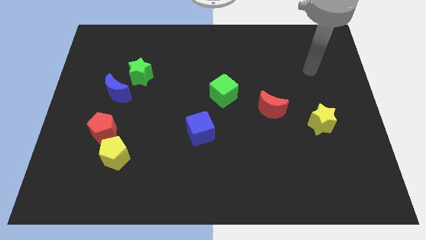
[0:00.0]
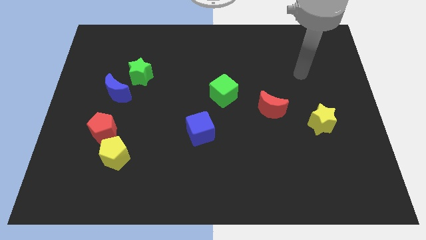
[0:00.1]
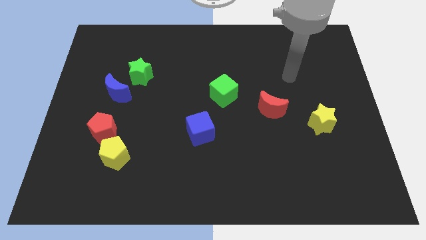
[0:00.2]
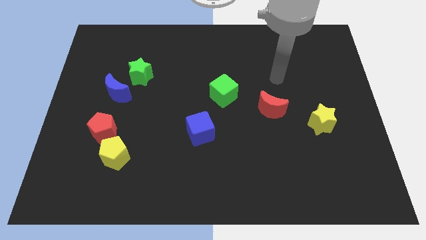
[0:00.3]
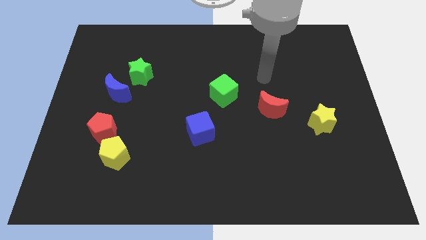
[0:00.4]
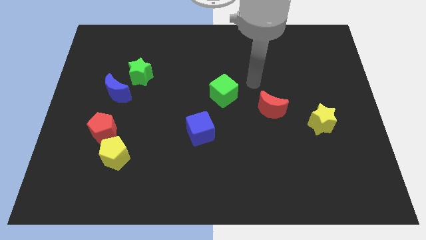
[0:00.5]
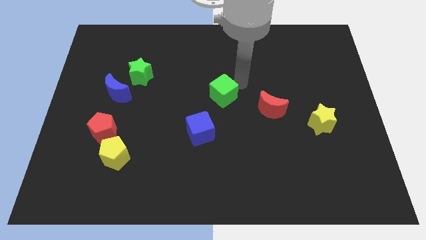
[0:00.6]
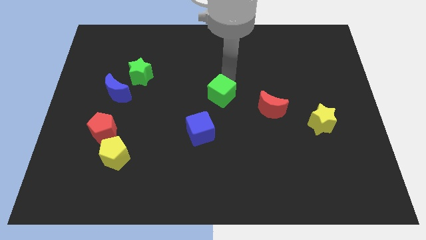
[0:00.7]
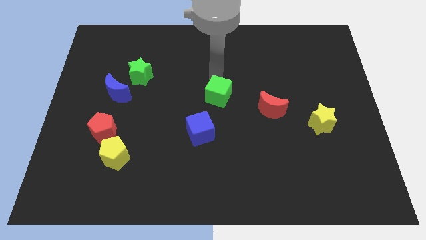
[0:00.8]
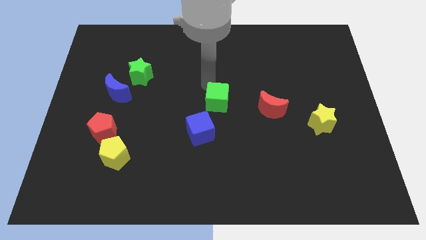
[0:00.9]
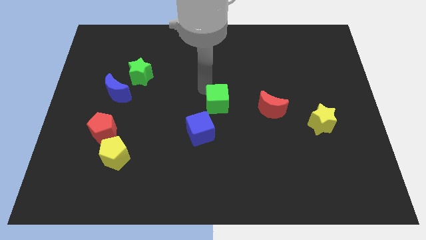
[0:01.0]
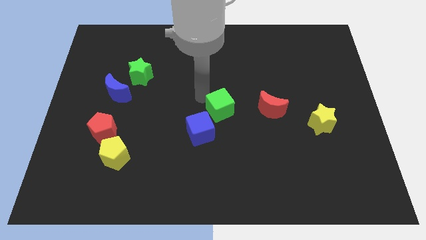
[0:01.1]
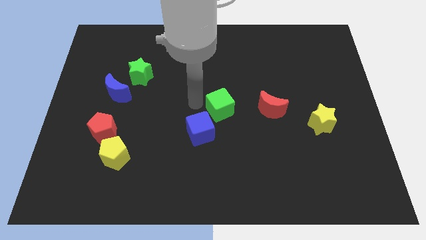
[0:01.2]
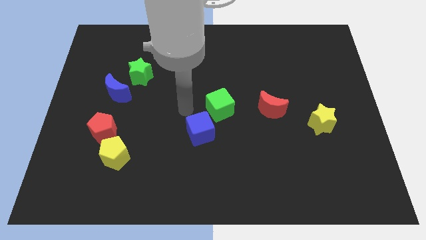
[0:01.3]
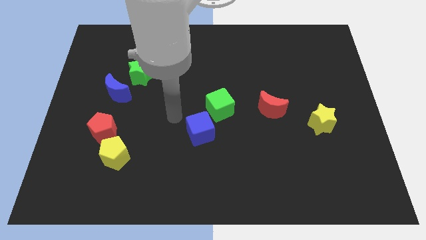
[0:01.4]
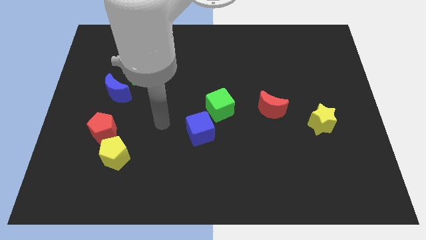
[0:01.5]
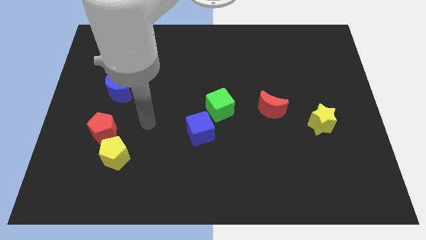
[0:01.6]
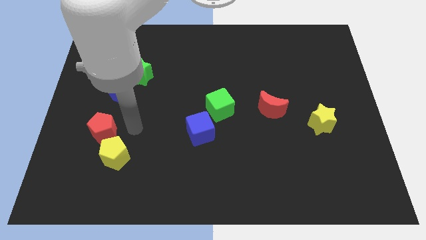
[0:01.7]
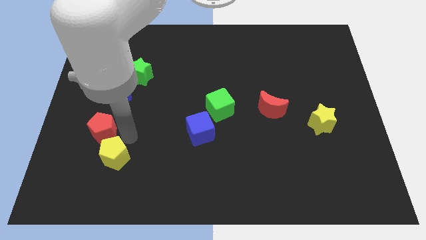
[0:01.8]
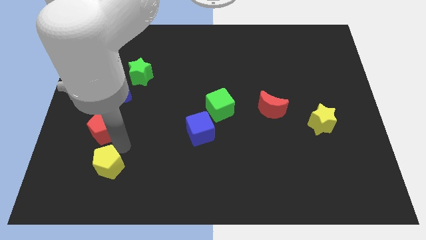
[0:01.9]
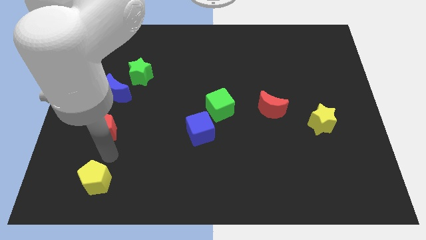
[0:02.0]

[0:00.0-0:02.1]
move the red pentagon away from the yellow pentagon

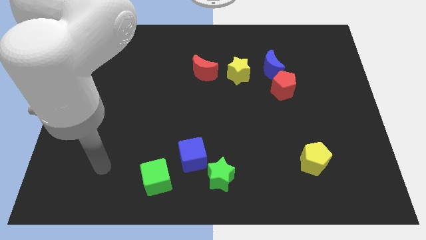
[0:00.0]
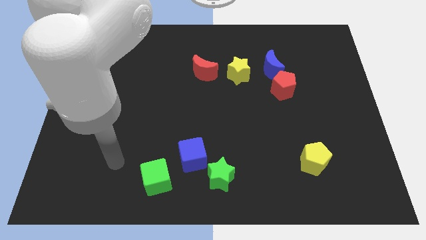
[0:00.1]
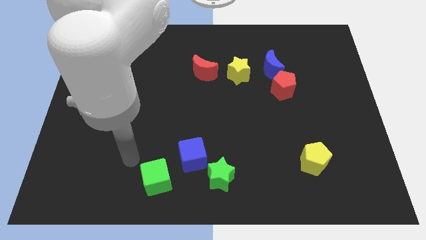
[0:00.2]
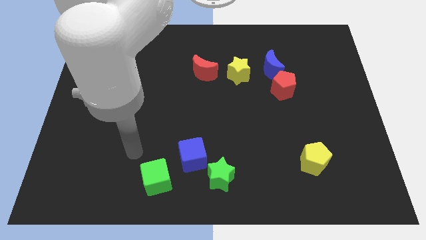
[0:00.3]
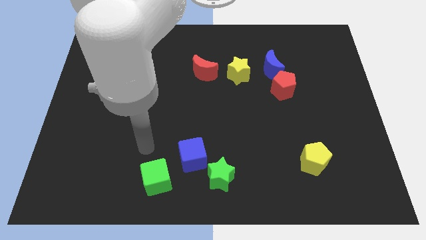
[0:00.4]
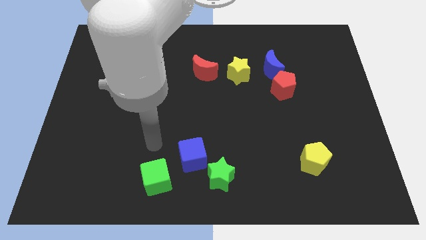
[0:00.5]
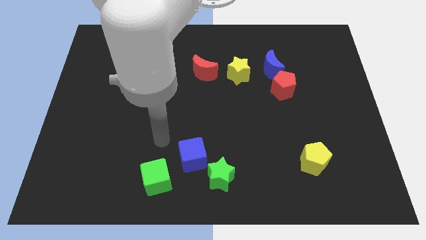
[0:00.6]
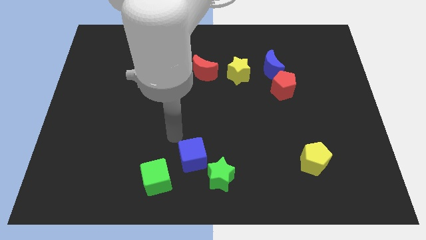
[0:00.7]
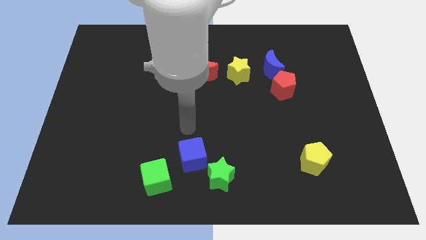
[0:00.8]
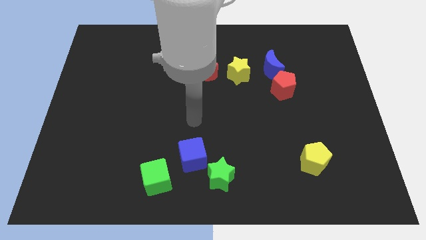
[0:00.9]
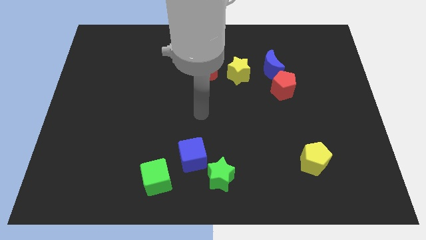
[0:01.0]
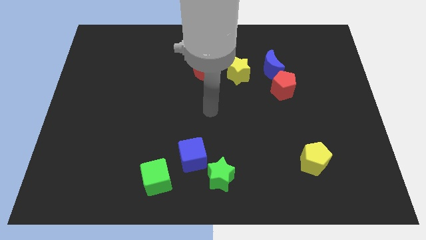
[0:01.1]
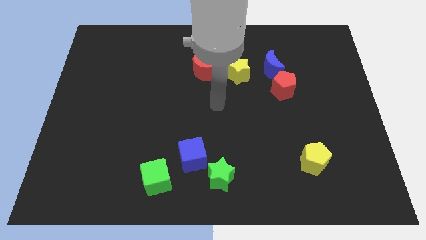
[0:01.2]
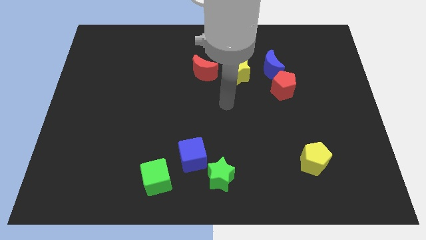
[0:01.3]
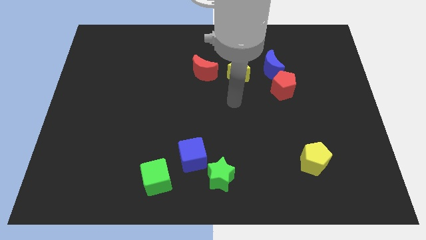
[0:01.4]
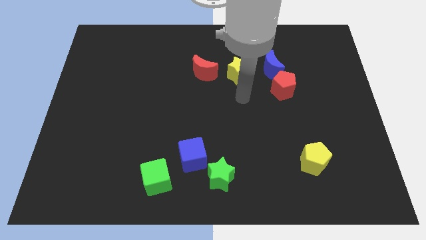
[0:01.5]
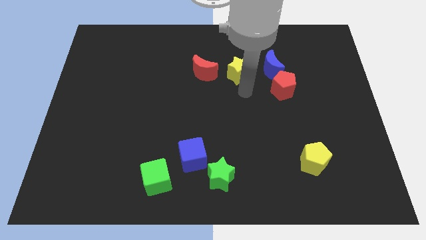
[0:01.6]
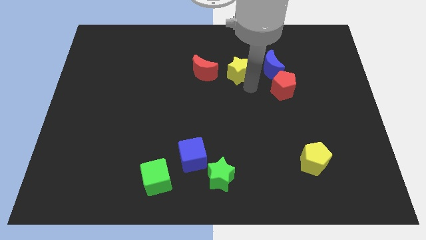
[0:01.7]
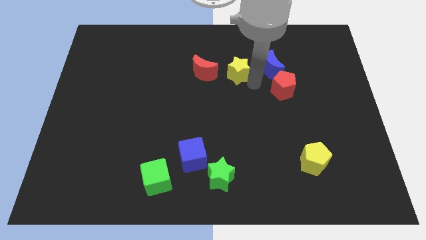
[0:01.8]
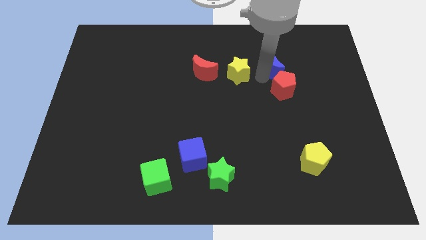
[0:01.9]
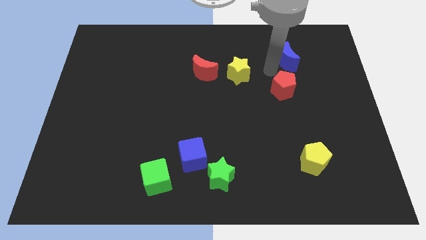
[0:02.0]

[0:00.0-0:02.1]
separate the red pentagon from the blue moon

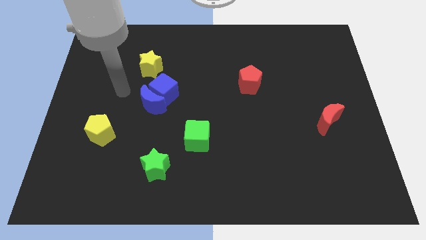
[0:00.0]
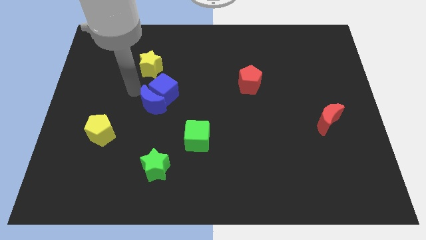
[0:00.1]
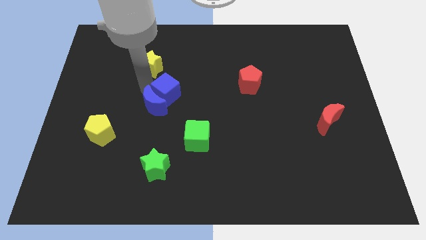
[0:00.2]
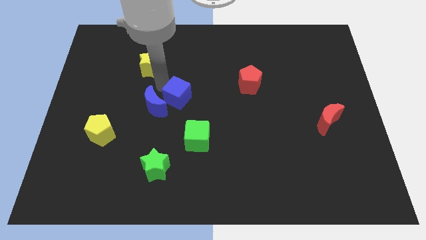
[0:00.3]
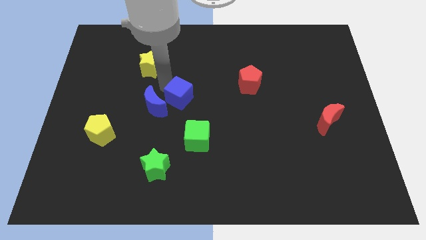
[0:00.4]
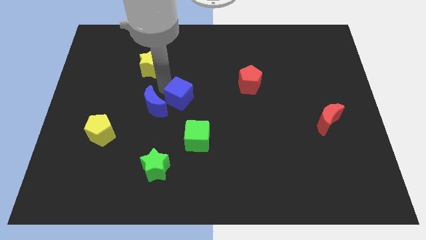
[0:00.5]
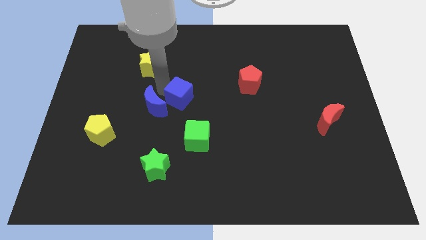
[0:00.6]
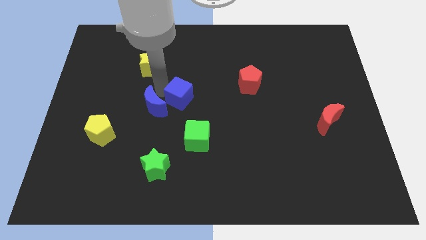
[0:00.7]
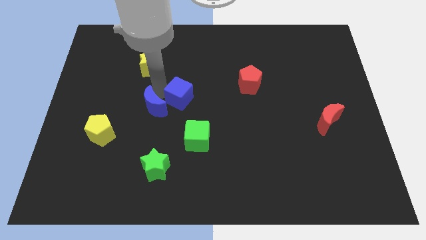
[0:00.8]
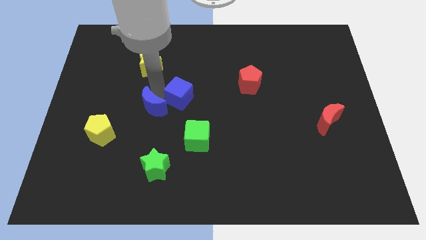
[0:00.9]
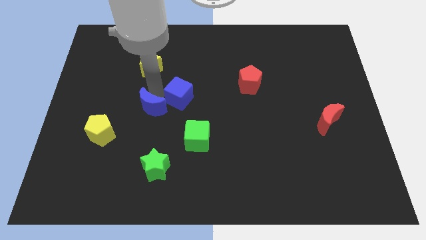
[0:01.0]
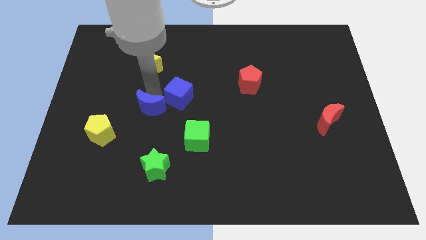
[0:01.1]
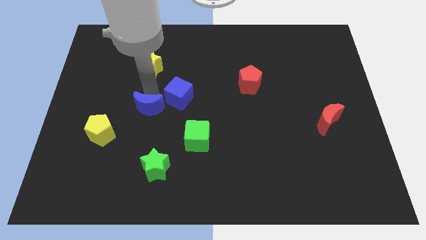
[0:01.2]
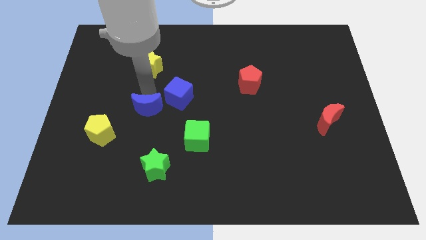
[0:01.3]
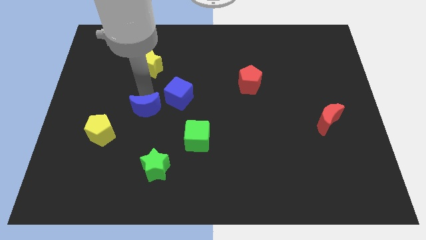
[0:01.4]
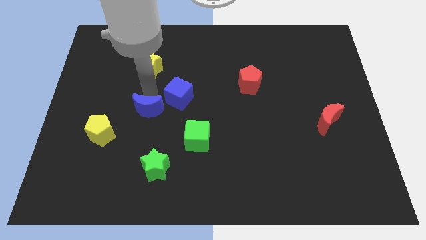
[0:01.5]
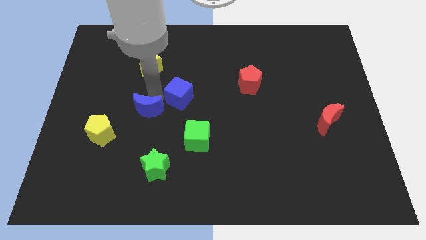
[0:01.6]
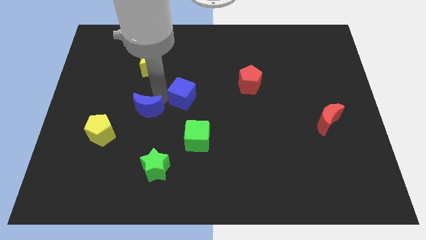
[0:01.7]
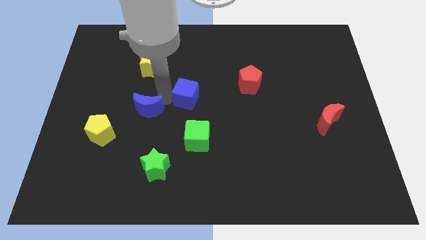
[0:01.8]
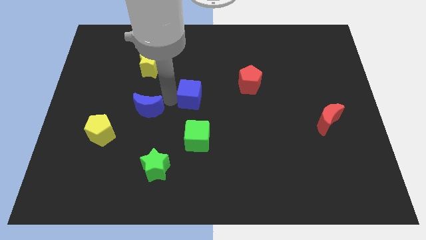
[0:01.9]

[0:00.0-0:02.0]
separate the blue moon from the blue cube

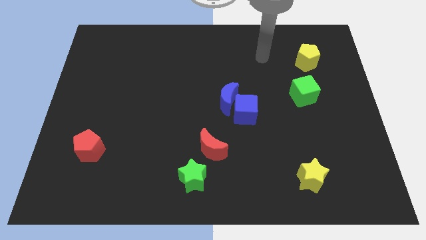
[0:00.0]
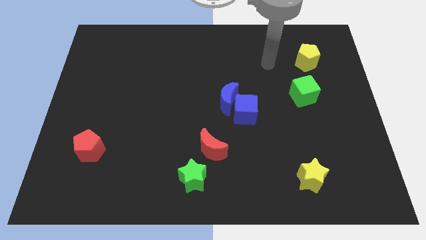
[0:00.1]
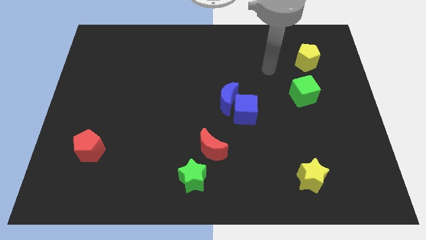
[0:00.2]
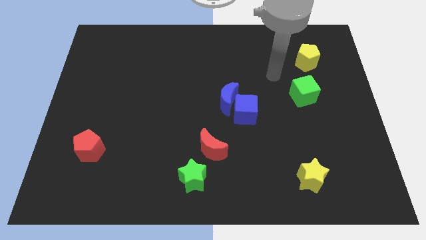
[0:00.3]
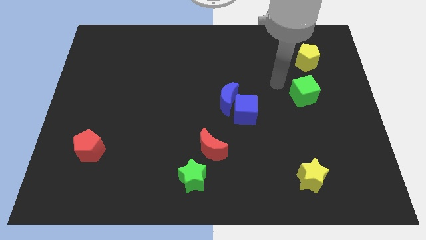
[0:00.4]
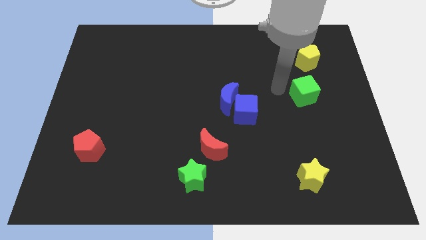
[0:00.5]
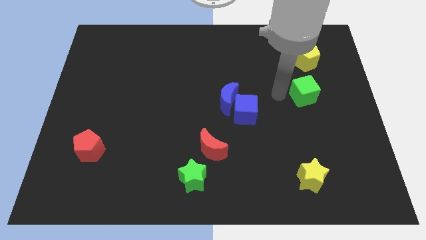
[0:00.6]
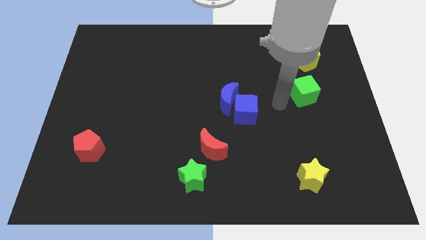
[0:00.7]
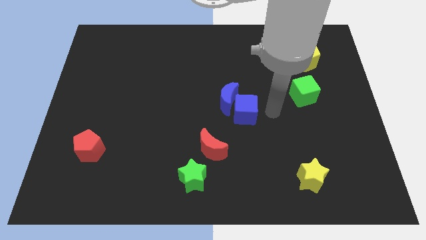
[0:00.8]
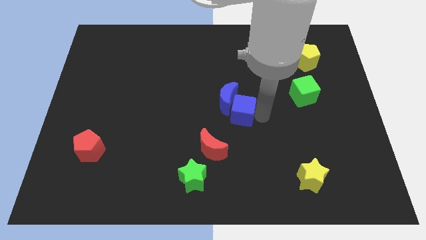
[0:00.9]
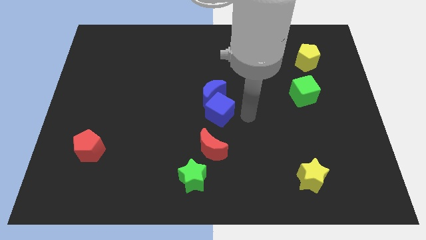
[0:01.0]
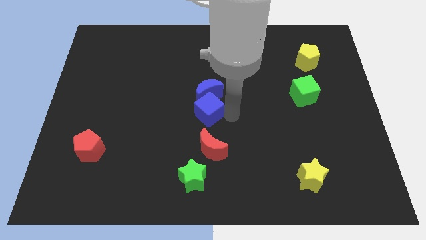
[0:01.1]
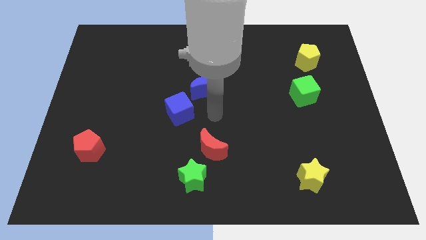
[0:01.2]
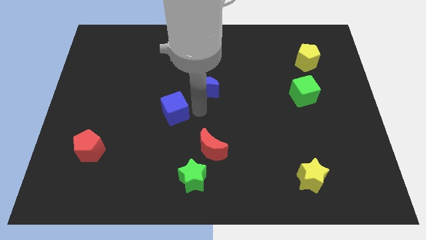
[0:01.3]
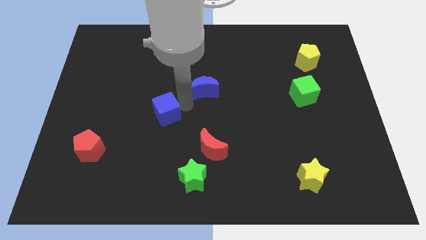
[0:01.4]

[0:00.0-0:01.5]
move the blue moon away from the blue cube

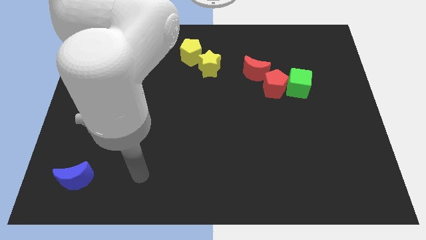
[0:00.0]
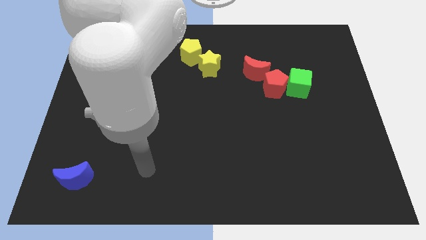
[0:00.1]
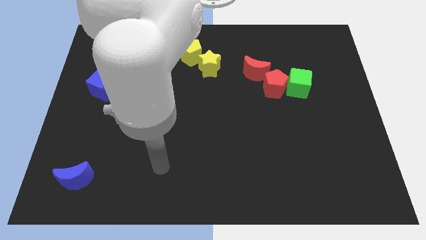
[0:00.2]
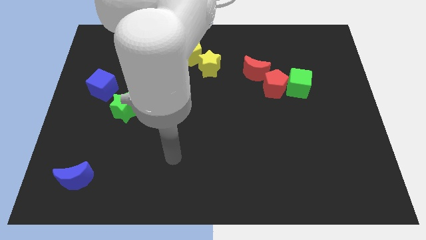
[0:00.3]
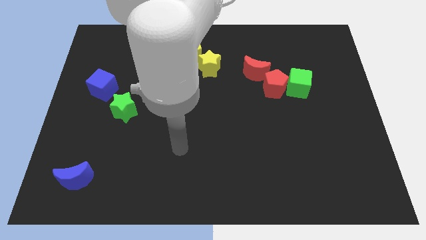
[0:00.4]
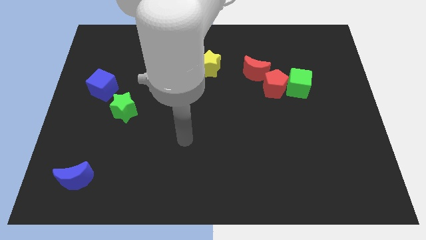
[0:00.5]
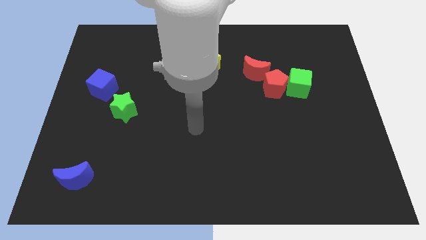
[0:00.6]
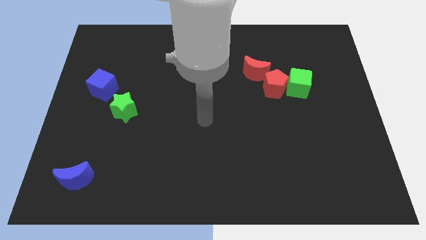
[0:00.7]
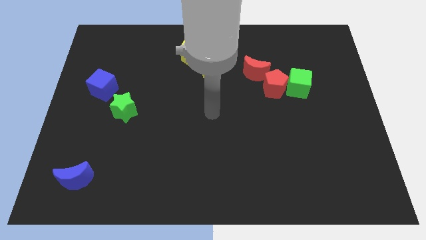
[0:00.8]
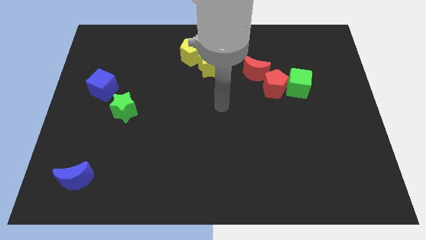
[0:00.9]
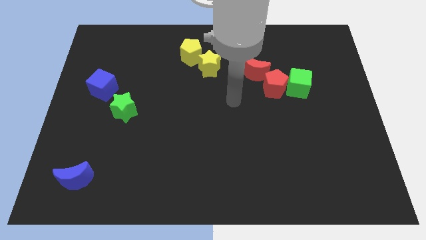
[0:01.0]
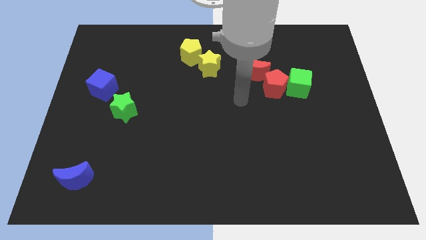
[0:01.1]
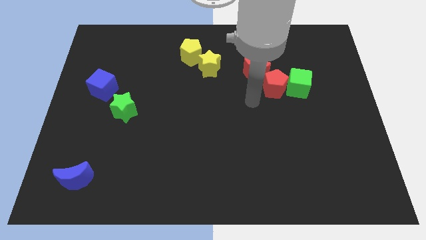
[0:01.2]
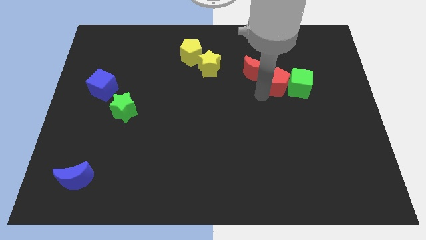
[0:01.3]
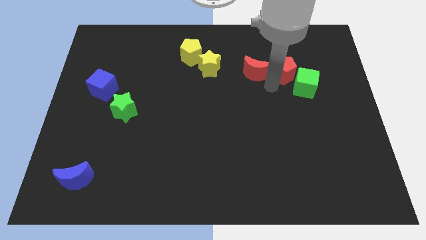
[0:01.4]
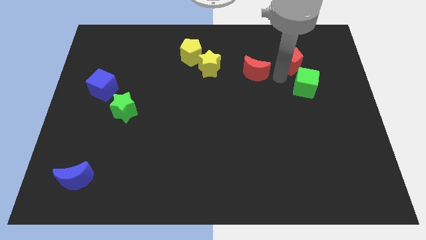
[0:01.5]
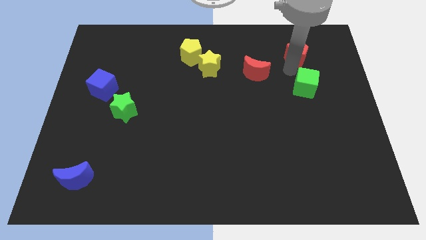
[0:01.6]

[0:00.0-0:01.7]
pull the green cube apart from the red pentagon
